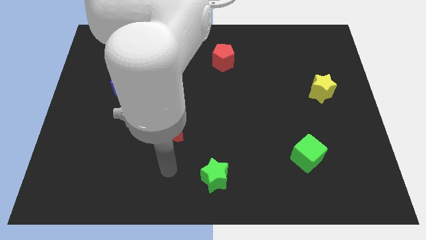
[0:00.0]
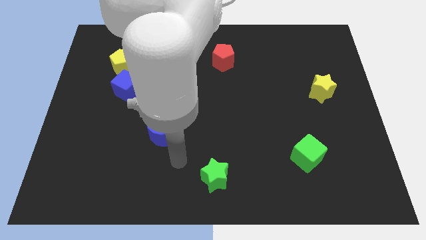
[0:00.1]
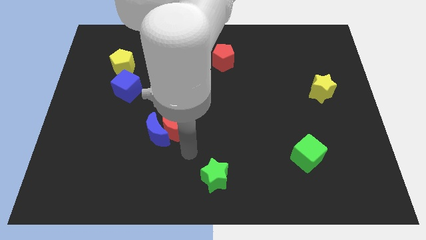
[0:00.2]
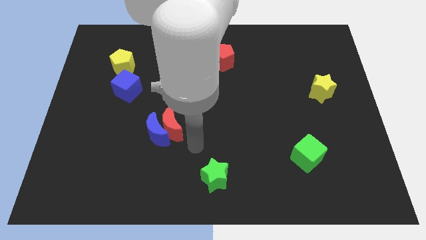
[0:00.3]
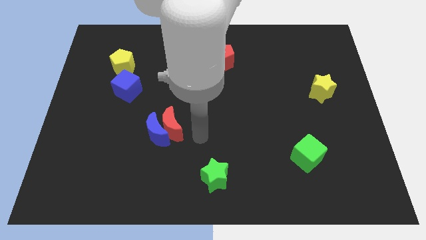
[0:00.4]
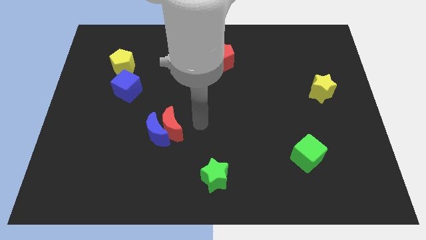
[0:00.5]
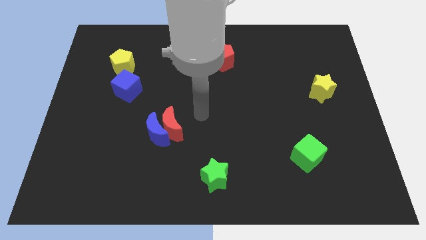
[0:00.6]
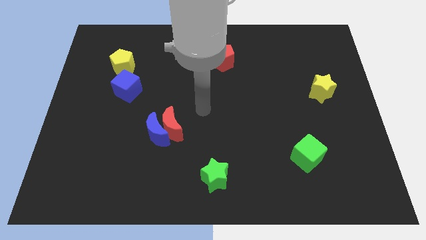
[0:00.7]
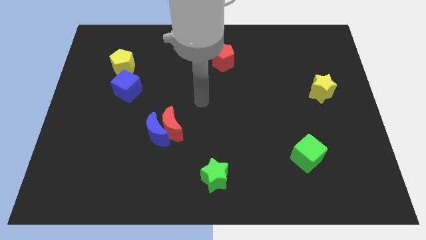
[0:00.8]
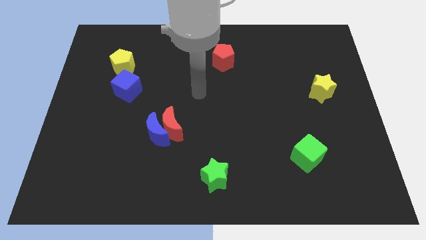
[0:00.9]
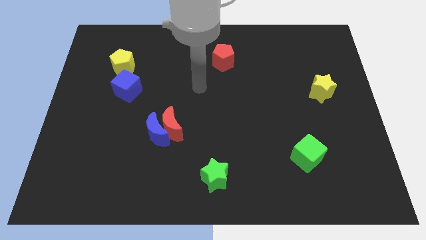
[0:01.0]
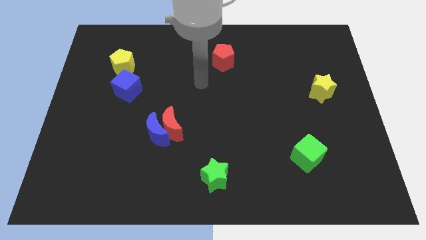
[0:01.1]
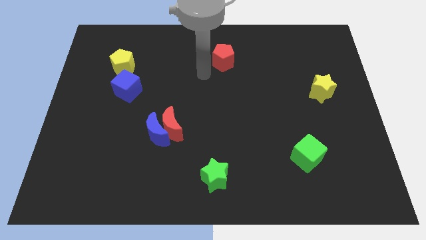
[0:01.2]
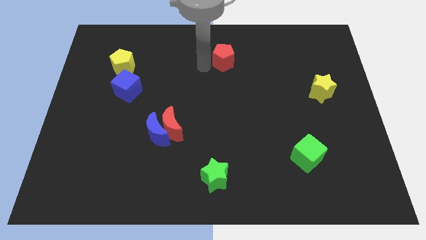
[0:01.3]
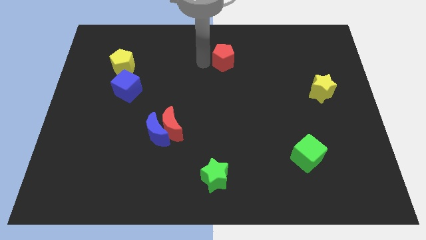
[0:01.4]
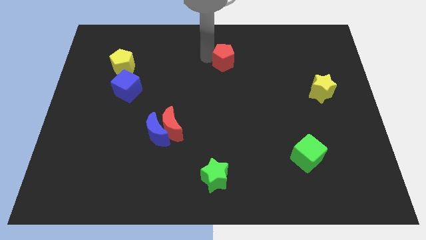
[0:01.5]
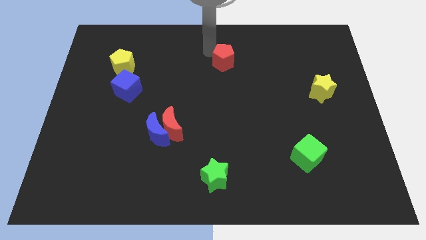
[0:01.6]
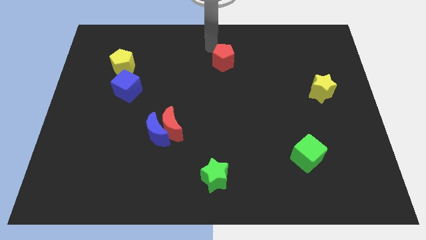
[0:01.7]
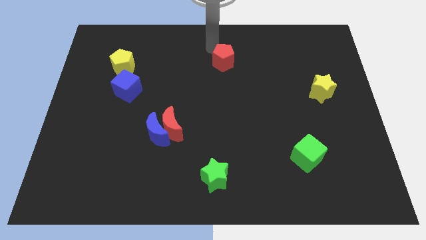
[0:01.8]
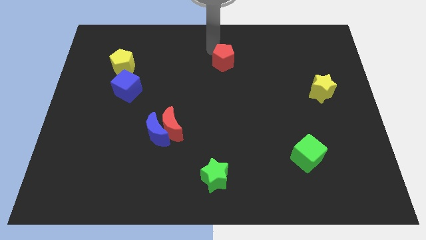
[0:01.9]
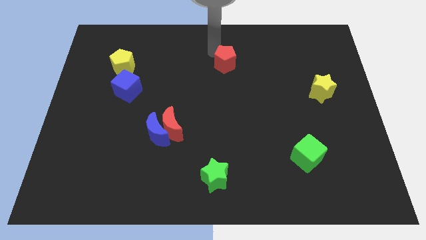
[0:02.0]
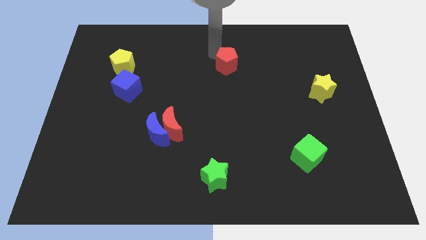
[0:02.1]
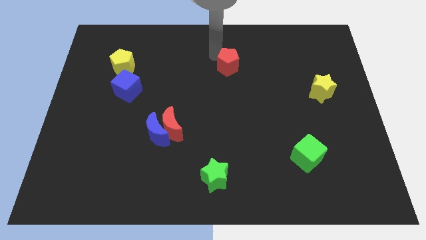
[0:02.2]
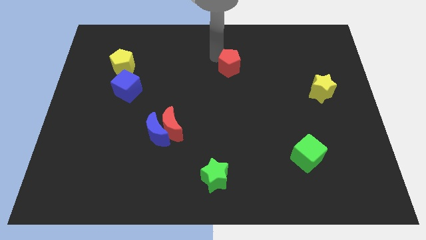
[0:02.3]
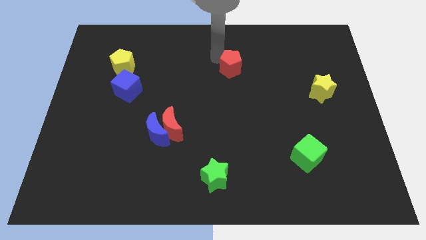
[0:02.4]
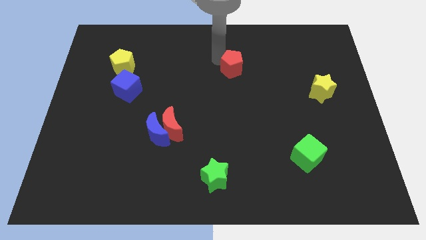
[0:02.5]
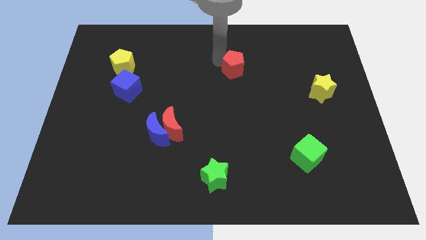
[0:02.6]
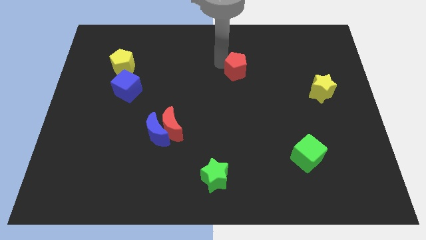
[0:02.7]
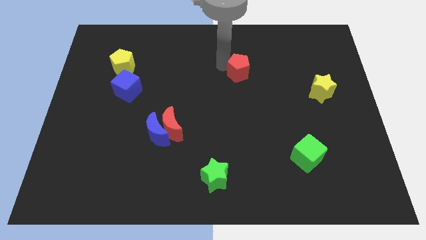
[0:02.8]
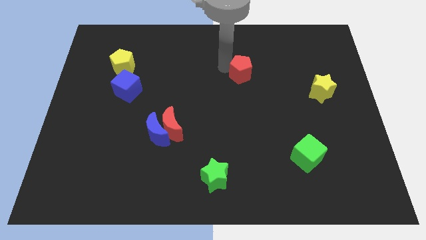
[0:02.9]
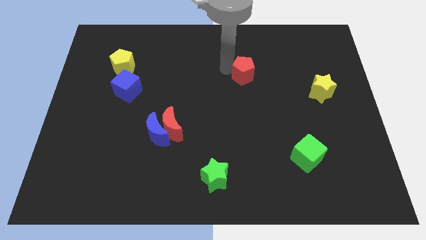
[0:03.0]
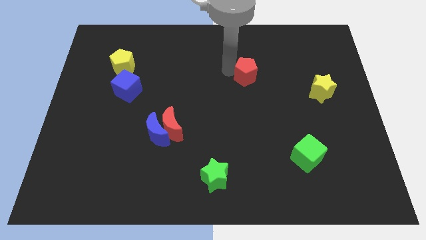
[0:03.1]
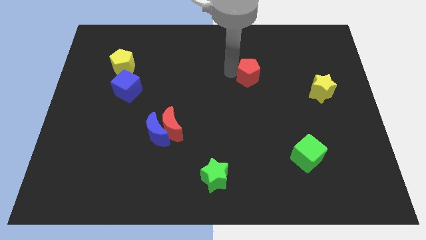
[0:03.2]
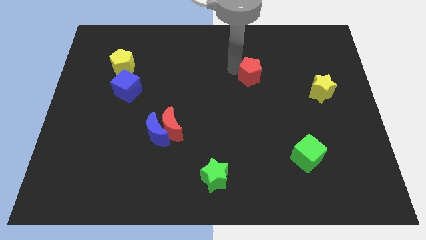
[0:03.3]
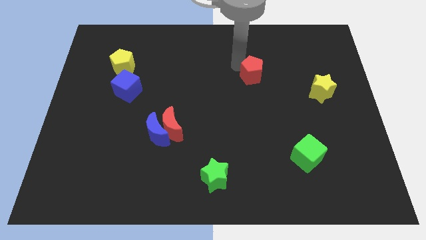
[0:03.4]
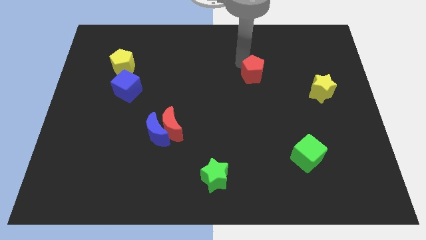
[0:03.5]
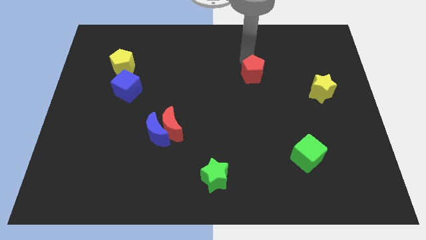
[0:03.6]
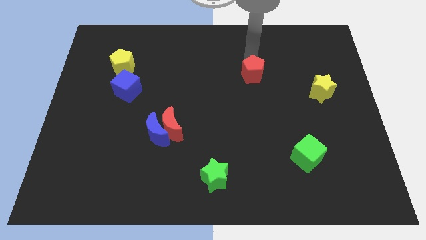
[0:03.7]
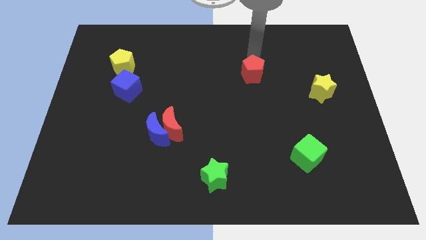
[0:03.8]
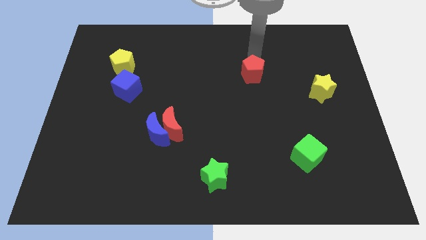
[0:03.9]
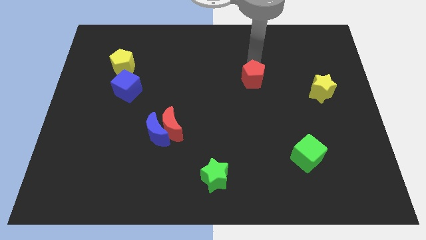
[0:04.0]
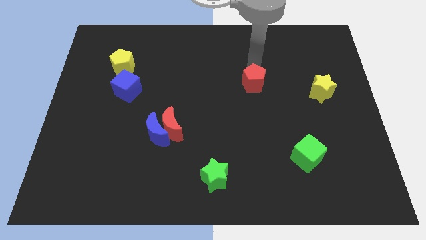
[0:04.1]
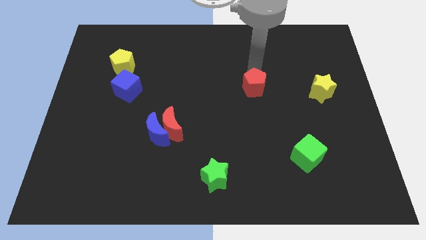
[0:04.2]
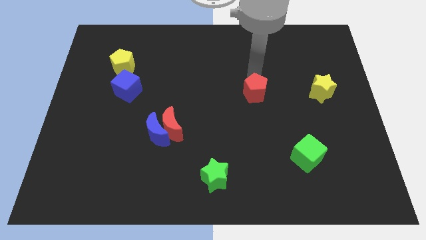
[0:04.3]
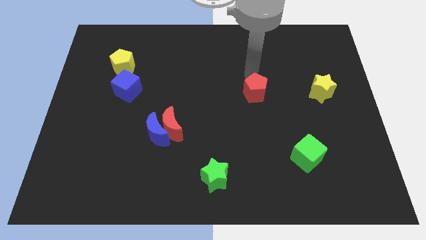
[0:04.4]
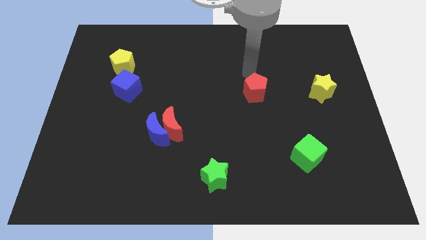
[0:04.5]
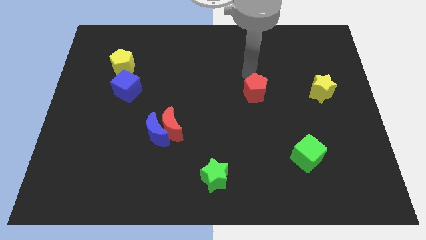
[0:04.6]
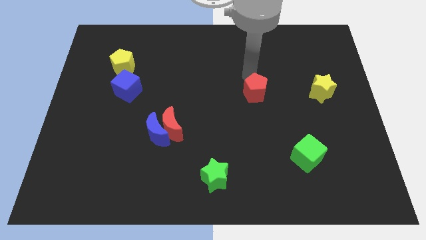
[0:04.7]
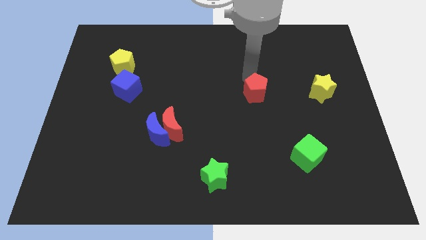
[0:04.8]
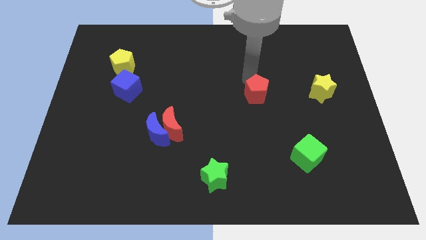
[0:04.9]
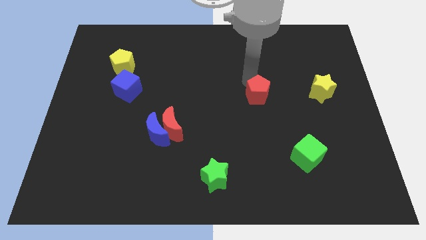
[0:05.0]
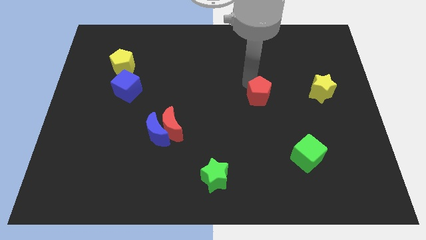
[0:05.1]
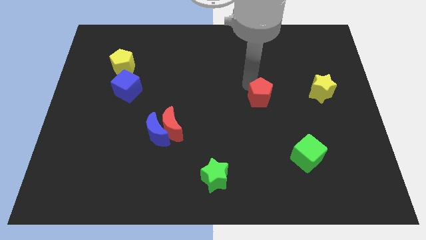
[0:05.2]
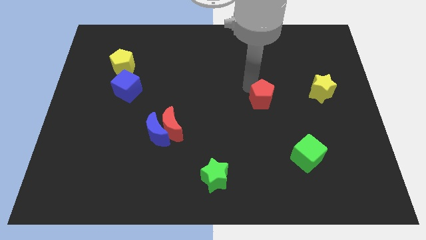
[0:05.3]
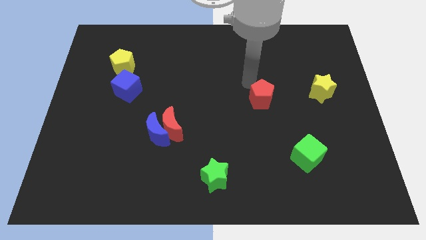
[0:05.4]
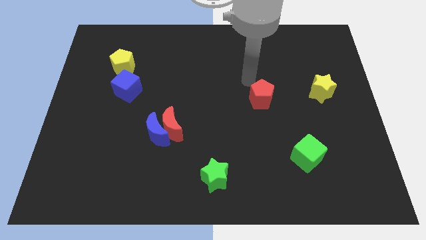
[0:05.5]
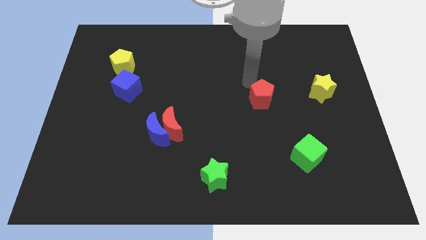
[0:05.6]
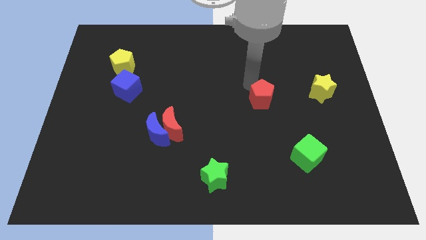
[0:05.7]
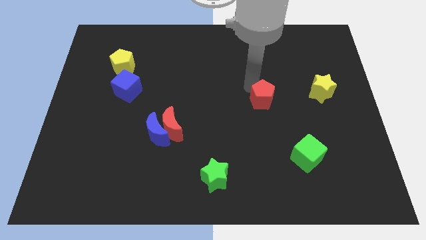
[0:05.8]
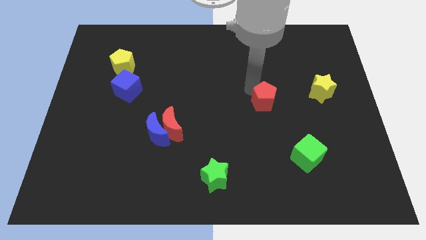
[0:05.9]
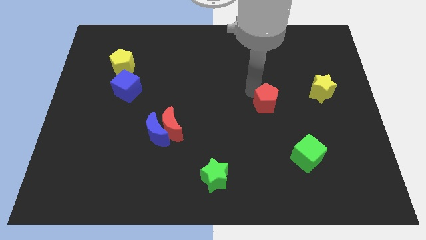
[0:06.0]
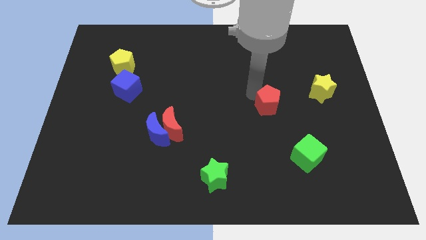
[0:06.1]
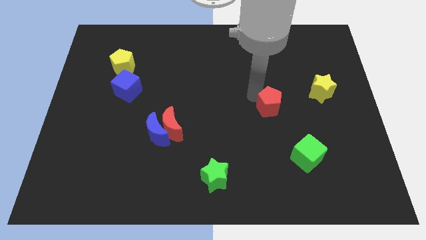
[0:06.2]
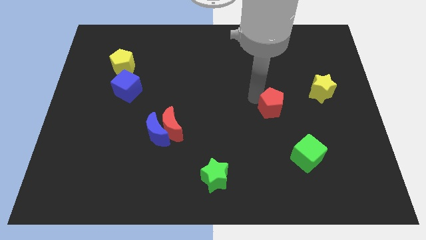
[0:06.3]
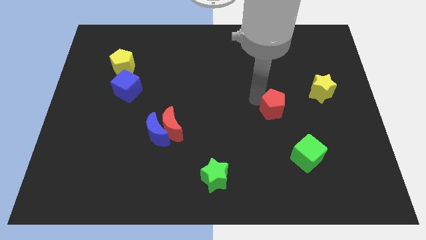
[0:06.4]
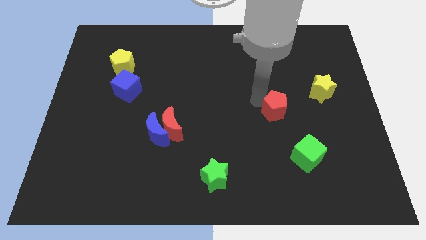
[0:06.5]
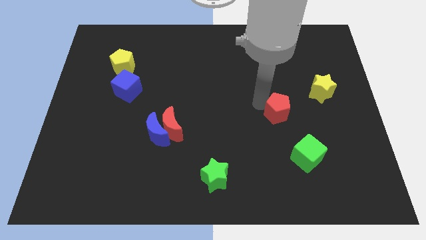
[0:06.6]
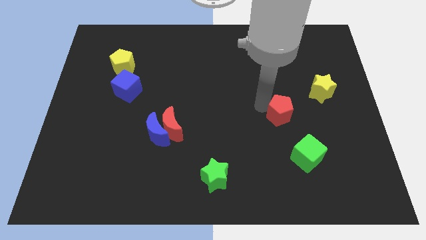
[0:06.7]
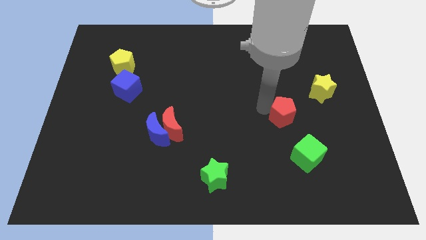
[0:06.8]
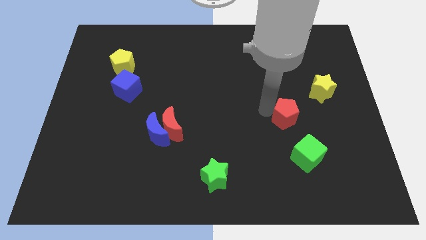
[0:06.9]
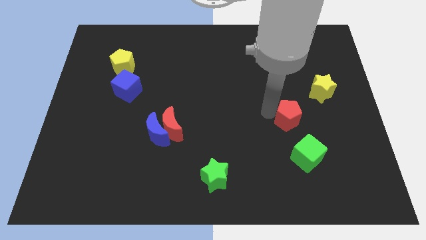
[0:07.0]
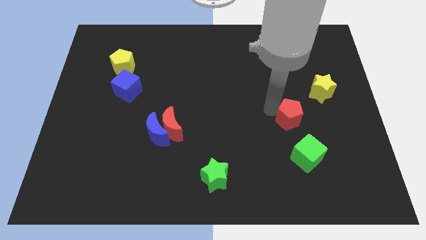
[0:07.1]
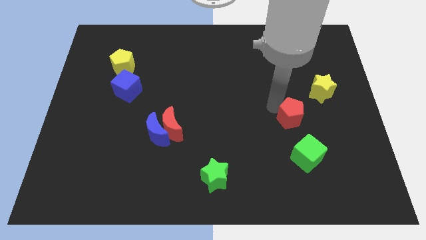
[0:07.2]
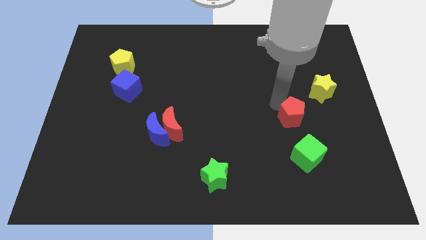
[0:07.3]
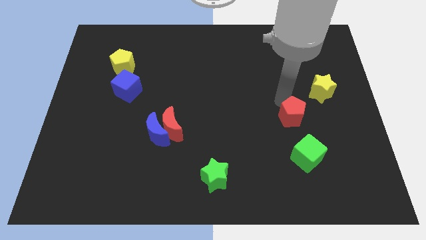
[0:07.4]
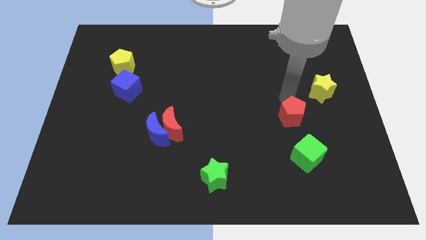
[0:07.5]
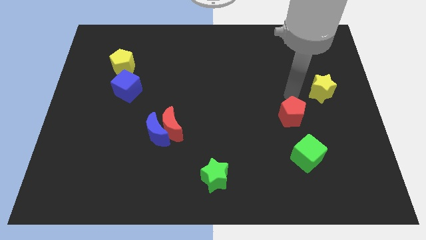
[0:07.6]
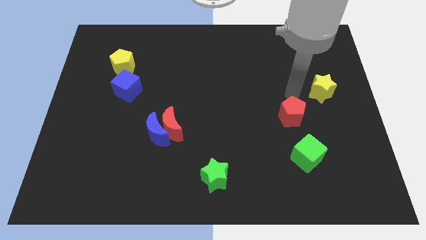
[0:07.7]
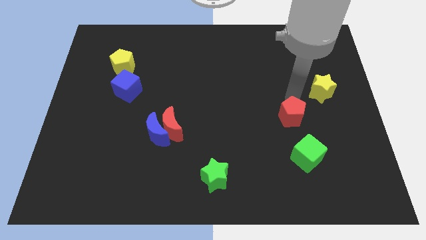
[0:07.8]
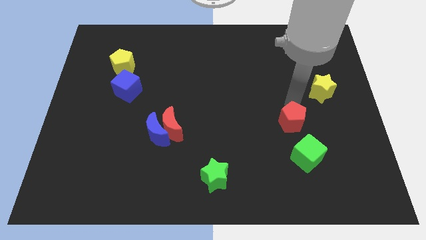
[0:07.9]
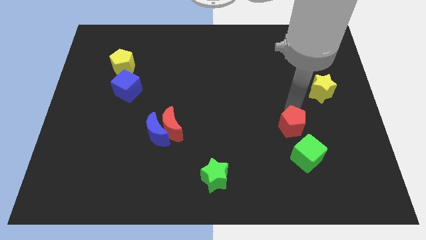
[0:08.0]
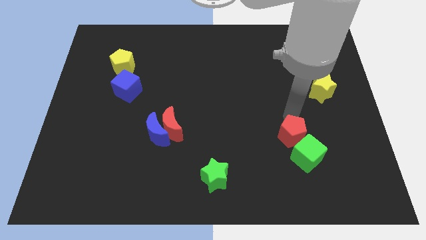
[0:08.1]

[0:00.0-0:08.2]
push the red pentagon close to the green cube
